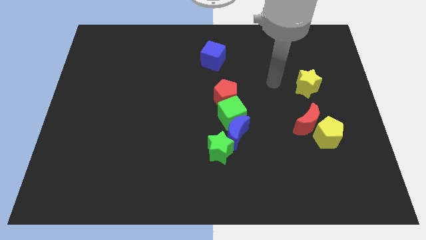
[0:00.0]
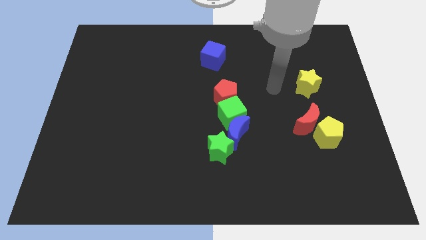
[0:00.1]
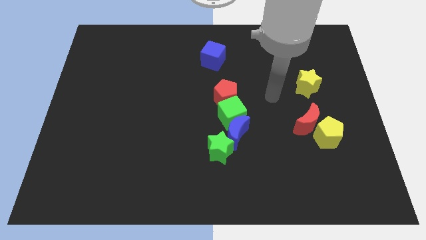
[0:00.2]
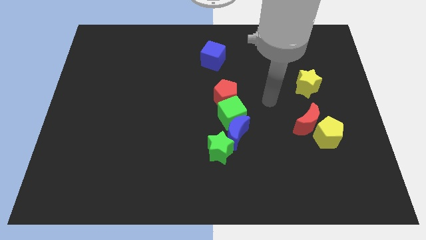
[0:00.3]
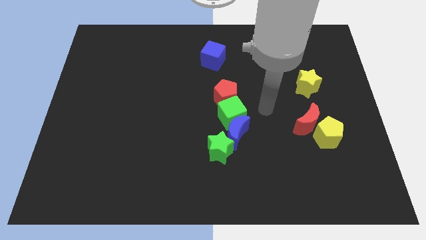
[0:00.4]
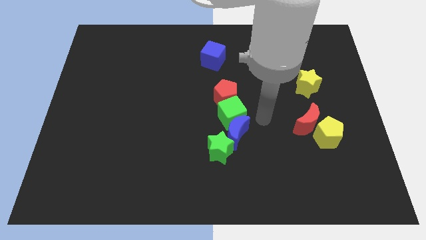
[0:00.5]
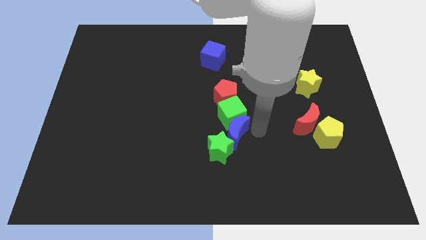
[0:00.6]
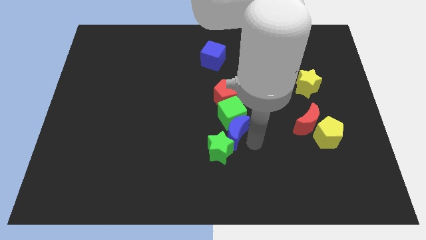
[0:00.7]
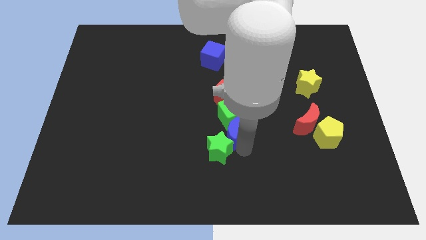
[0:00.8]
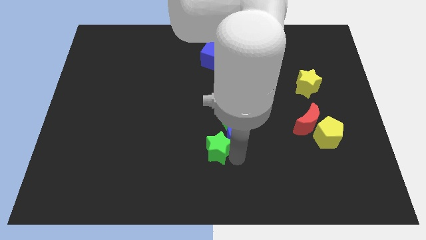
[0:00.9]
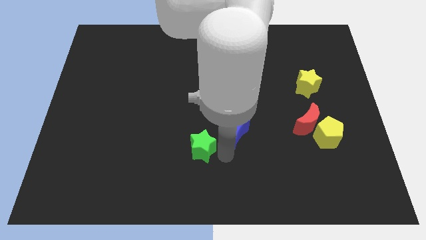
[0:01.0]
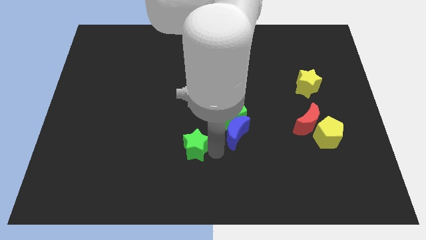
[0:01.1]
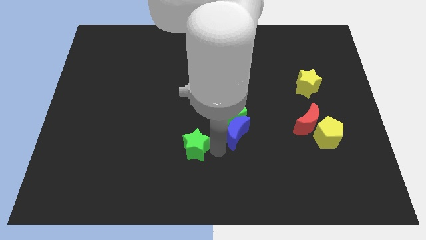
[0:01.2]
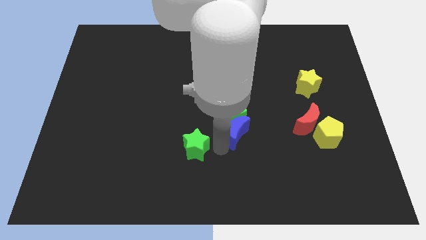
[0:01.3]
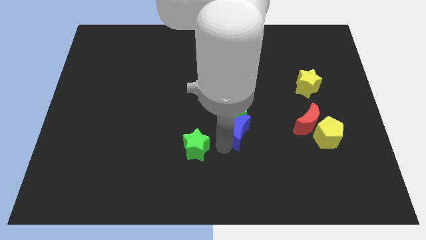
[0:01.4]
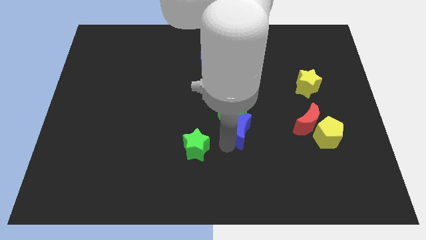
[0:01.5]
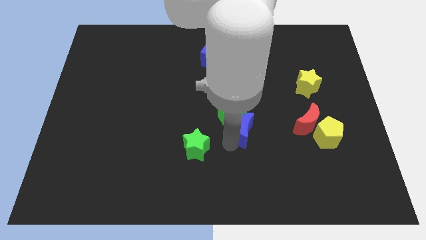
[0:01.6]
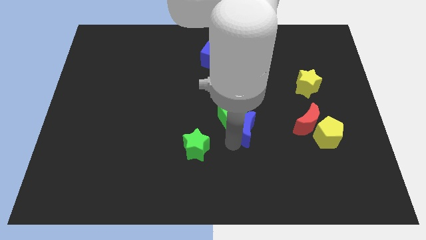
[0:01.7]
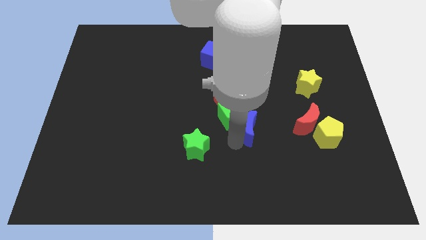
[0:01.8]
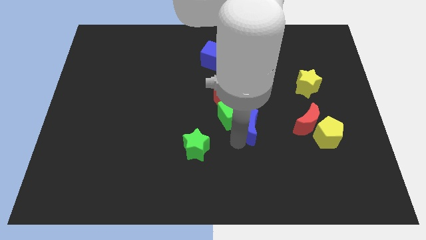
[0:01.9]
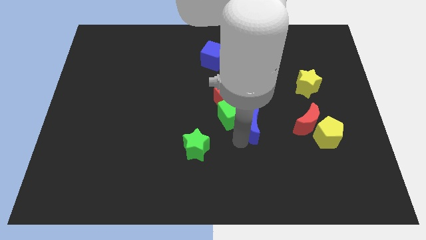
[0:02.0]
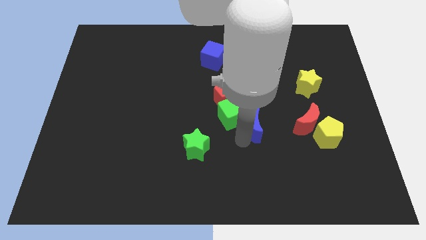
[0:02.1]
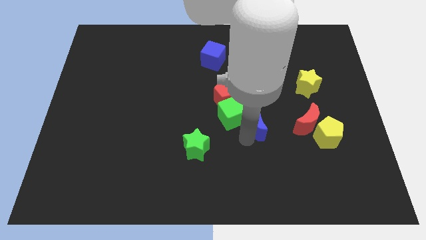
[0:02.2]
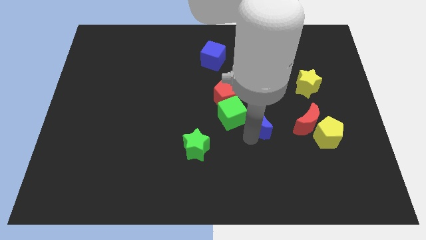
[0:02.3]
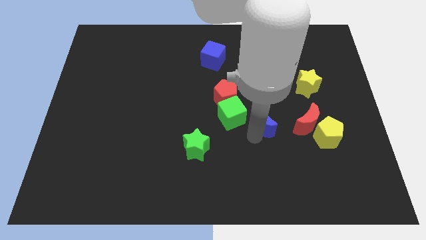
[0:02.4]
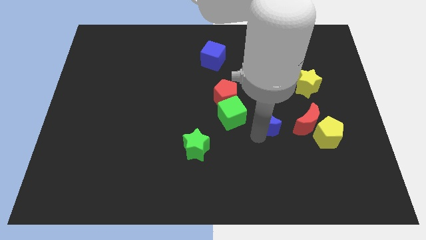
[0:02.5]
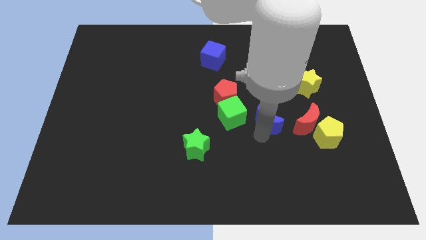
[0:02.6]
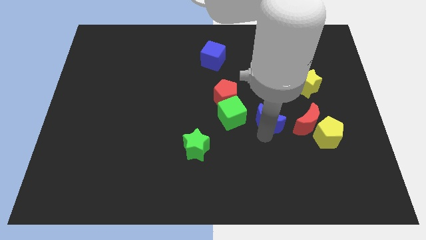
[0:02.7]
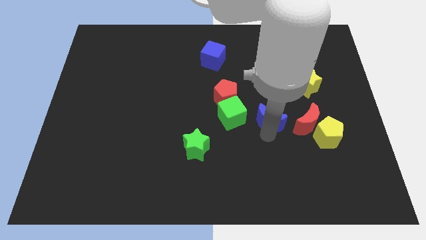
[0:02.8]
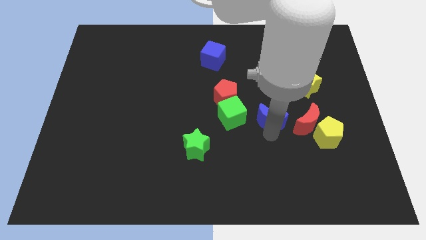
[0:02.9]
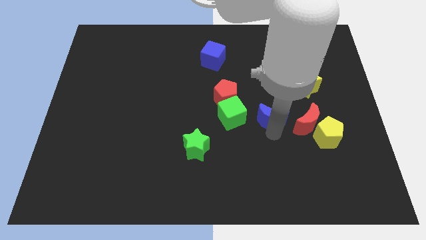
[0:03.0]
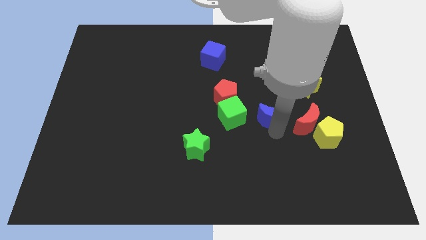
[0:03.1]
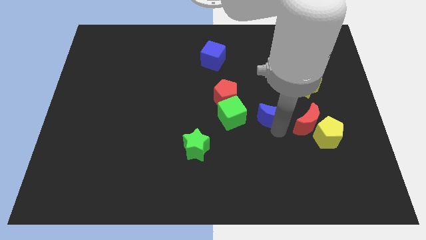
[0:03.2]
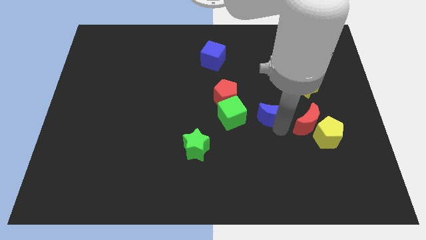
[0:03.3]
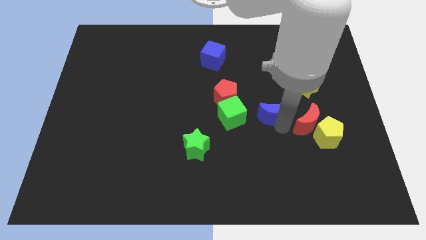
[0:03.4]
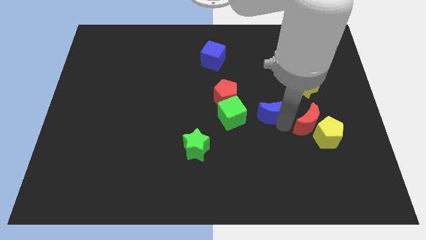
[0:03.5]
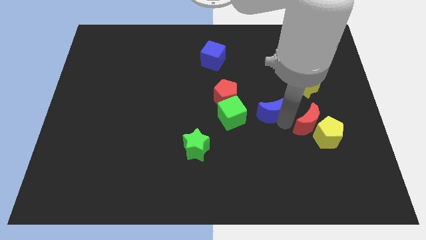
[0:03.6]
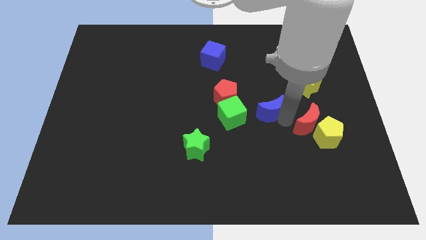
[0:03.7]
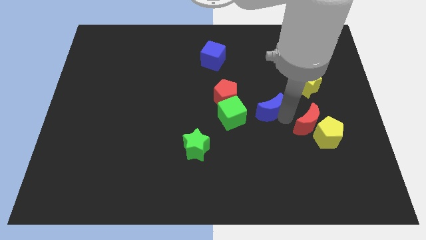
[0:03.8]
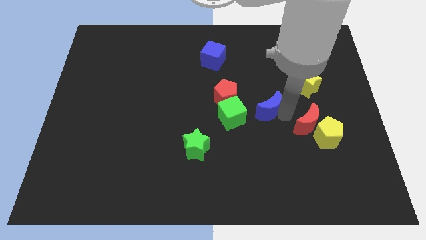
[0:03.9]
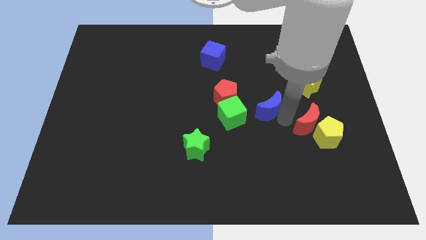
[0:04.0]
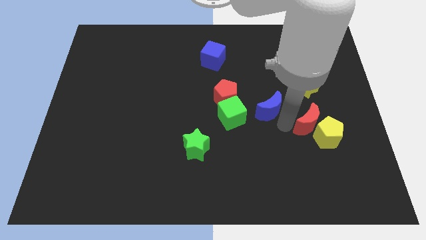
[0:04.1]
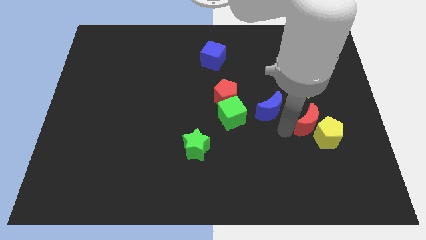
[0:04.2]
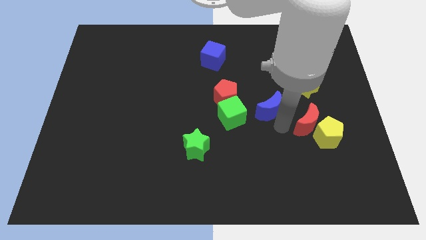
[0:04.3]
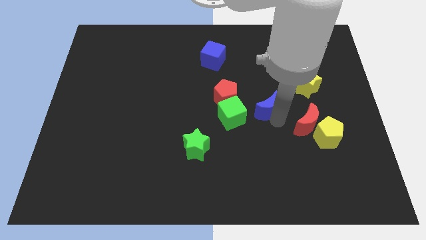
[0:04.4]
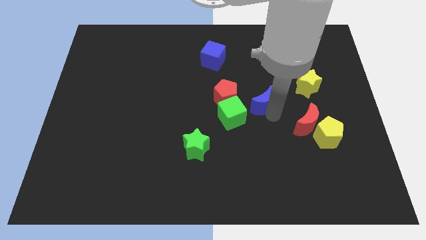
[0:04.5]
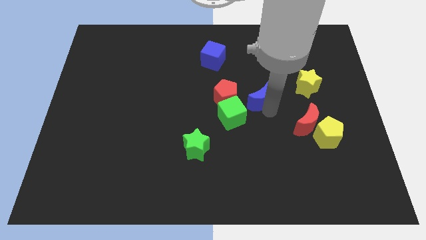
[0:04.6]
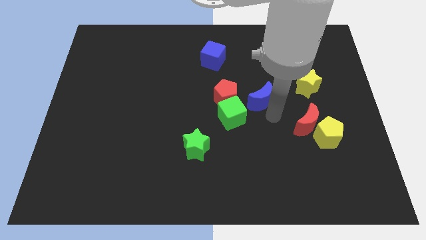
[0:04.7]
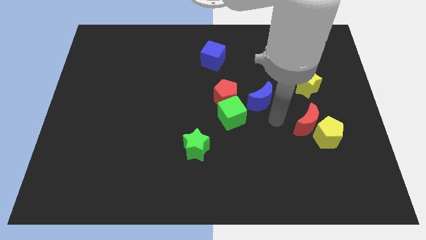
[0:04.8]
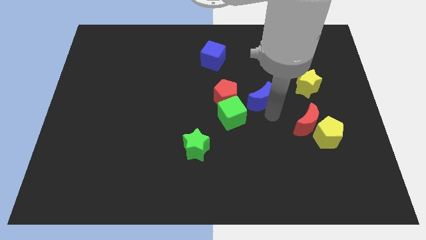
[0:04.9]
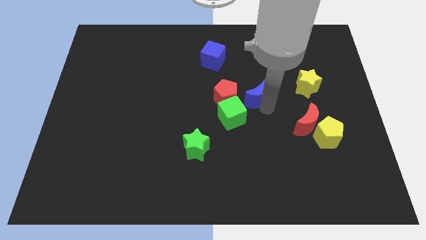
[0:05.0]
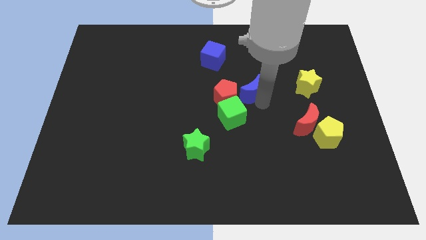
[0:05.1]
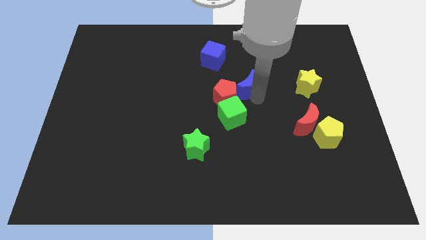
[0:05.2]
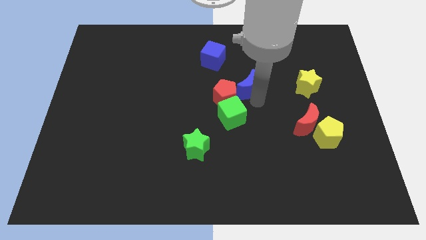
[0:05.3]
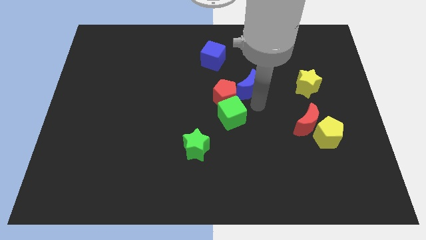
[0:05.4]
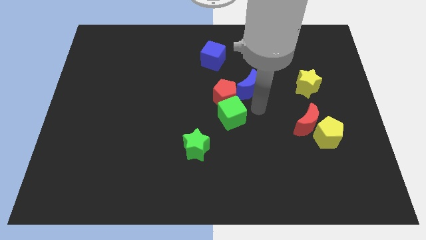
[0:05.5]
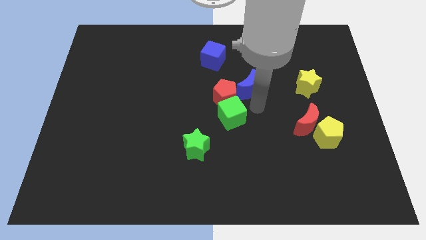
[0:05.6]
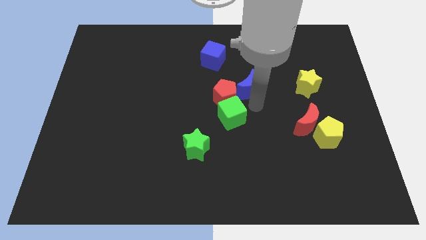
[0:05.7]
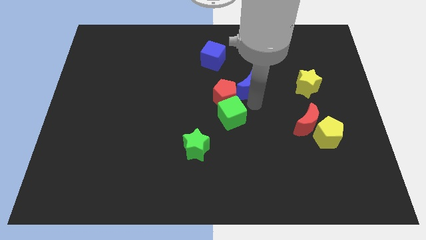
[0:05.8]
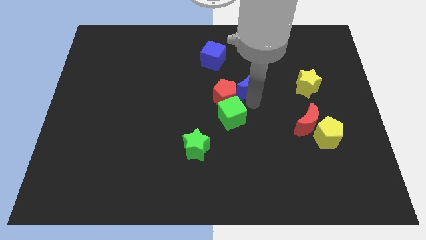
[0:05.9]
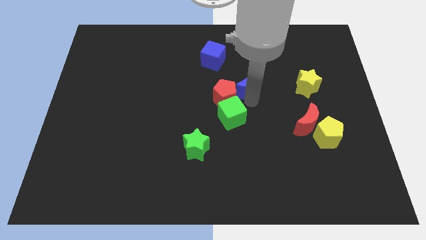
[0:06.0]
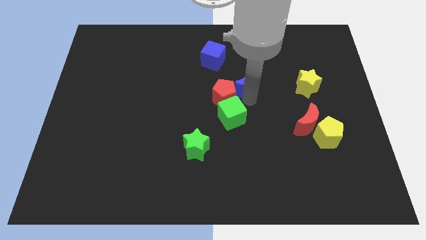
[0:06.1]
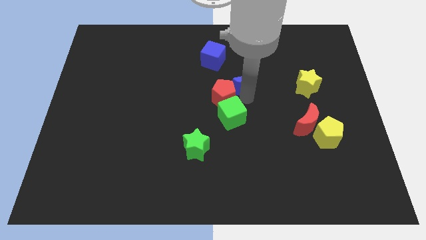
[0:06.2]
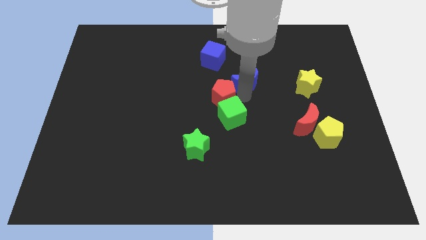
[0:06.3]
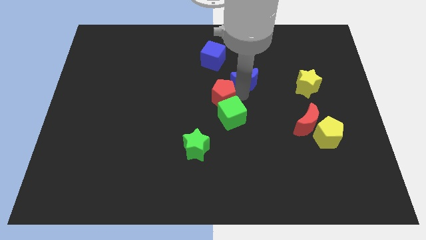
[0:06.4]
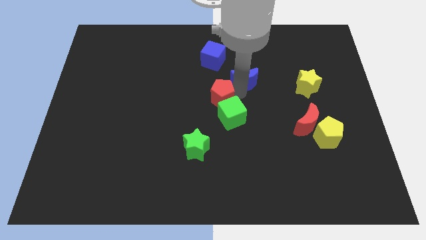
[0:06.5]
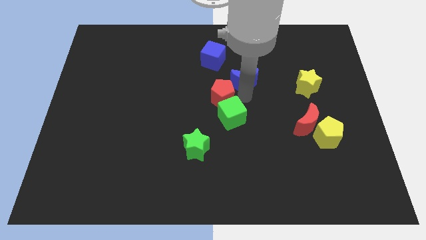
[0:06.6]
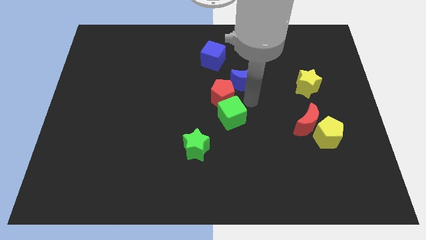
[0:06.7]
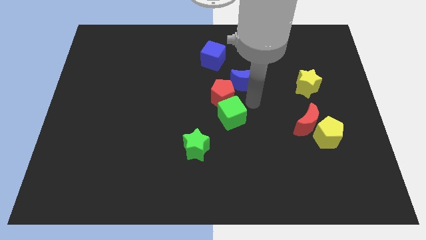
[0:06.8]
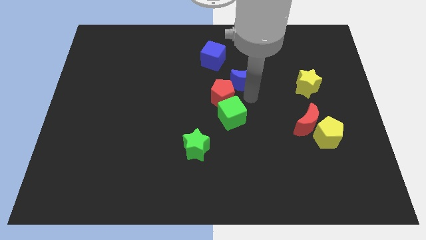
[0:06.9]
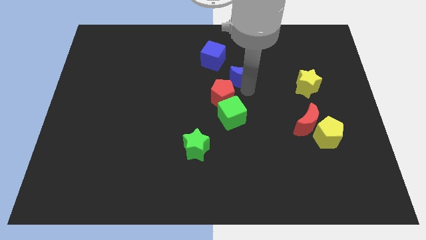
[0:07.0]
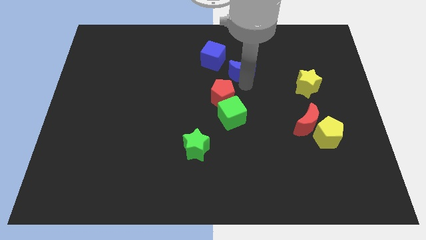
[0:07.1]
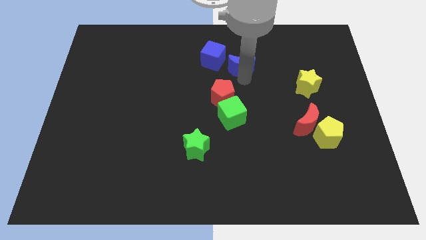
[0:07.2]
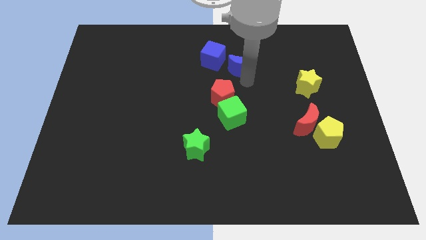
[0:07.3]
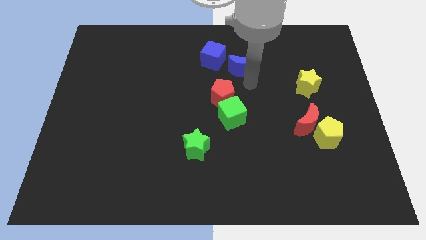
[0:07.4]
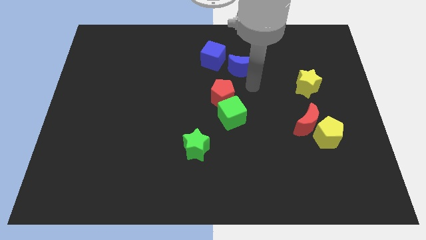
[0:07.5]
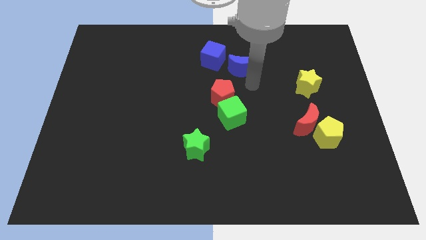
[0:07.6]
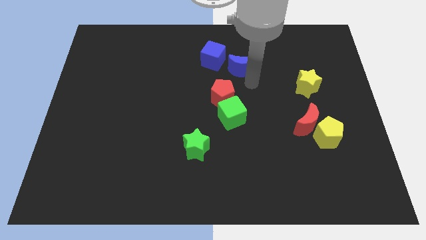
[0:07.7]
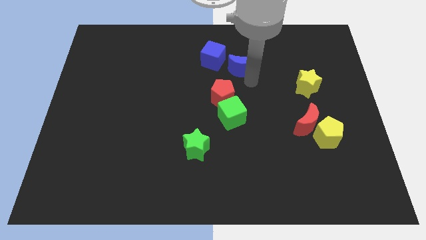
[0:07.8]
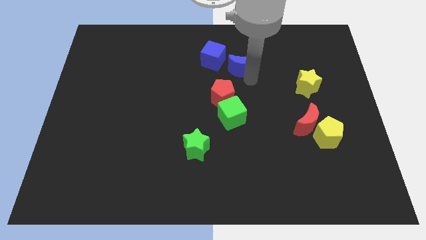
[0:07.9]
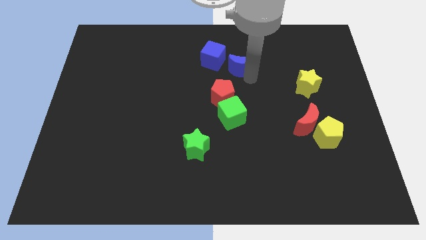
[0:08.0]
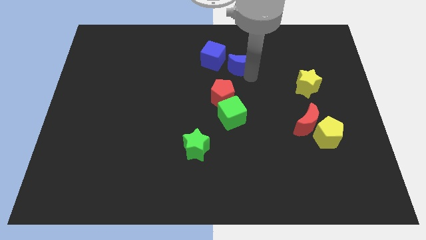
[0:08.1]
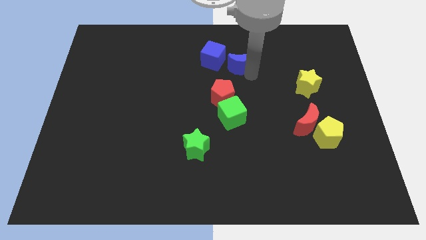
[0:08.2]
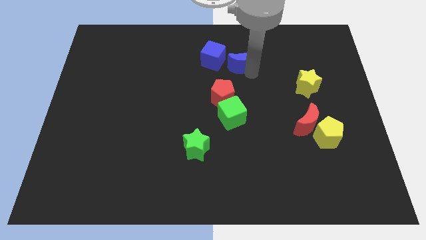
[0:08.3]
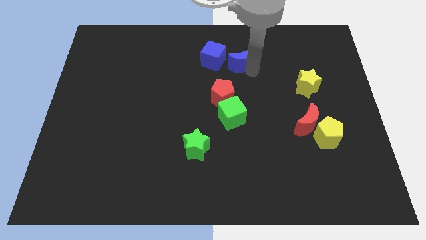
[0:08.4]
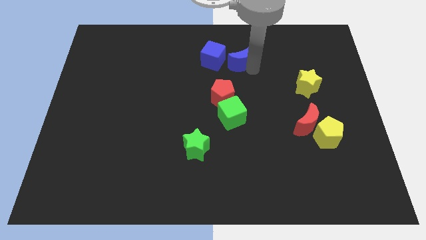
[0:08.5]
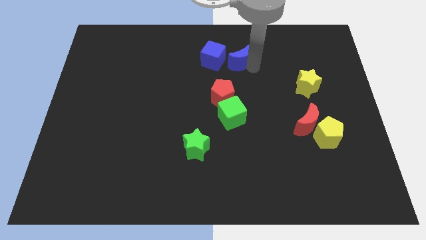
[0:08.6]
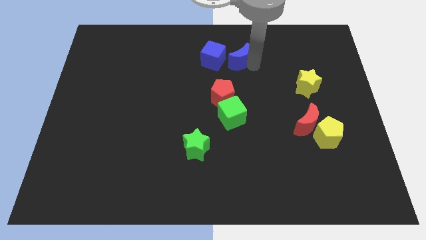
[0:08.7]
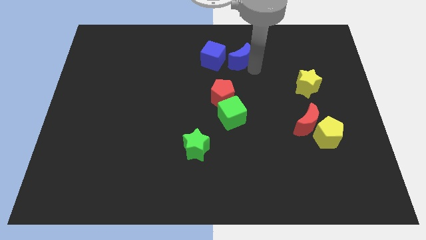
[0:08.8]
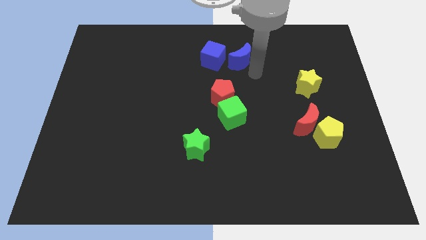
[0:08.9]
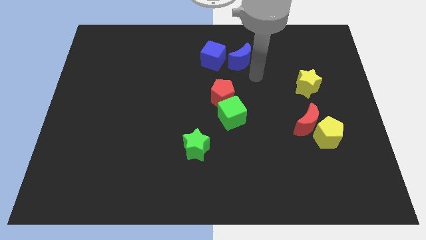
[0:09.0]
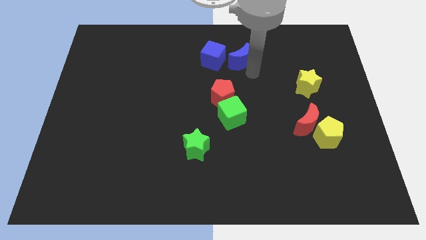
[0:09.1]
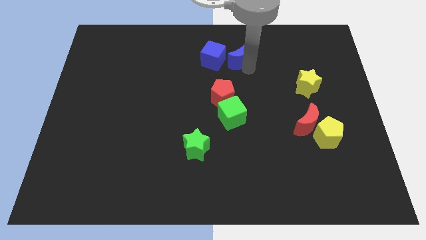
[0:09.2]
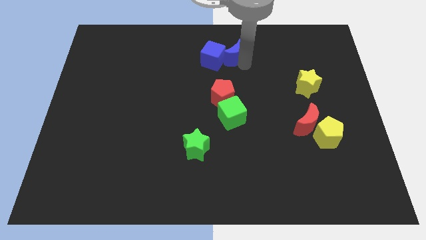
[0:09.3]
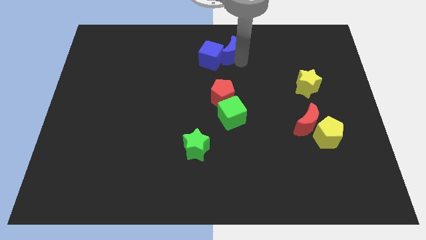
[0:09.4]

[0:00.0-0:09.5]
push the blue moon to the towards your base
